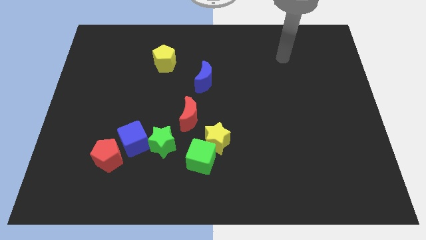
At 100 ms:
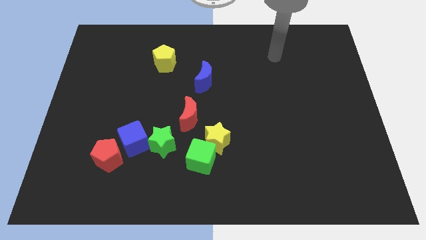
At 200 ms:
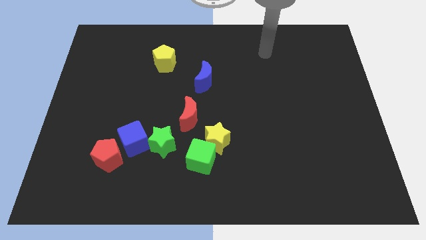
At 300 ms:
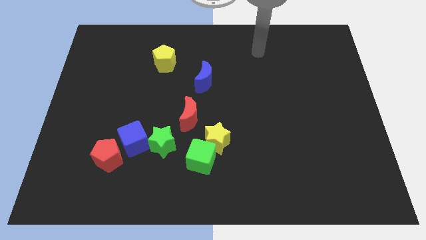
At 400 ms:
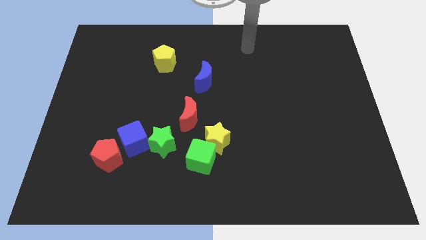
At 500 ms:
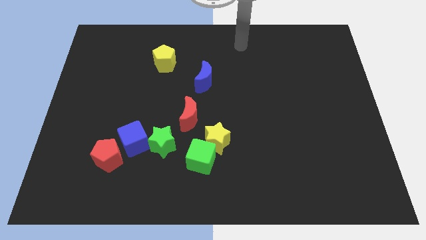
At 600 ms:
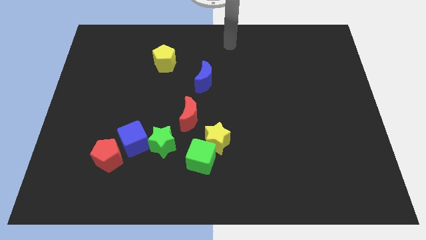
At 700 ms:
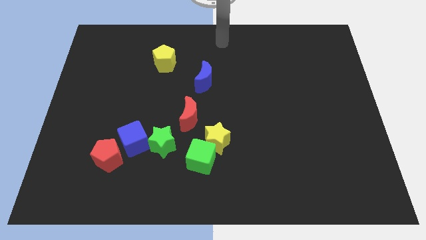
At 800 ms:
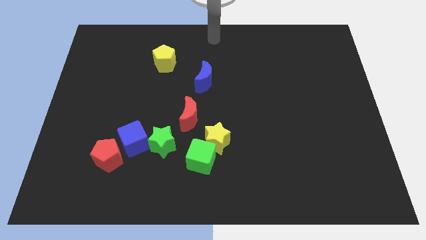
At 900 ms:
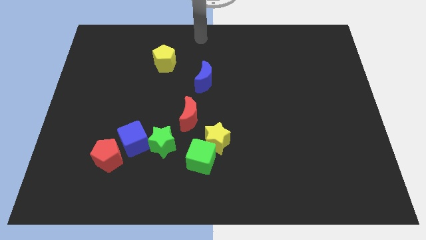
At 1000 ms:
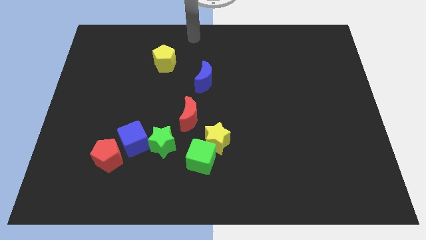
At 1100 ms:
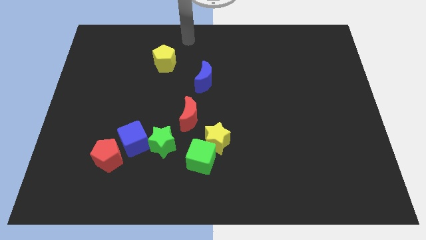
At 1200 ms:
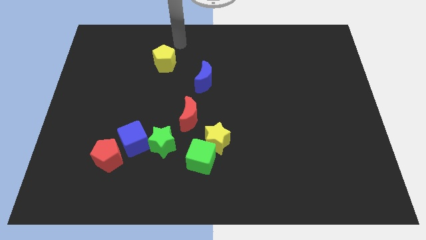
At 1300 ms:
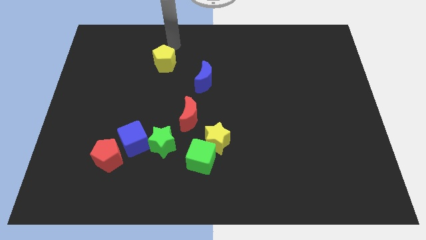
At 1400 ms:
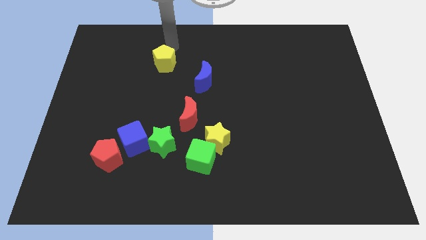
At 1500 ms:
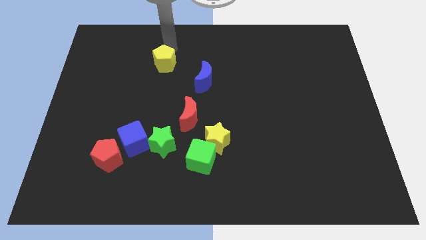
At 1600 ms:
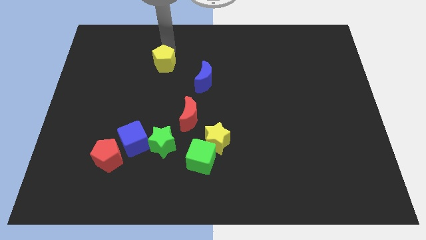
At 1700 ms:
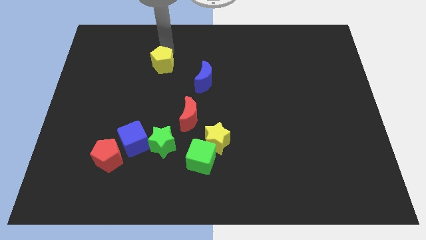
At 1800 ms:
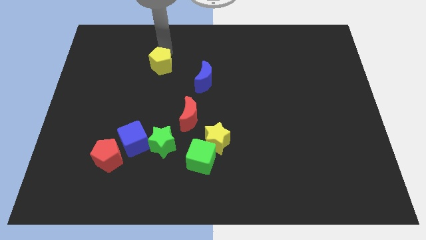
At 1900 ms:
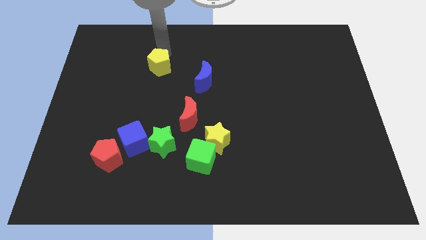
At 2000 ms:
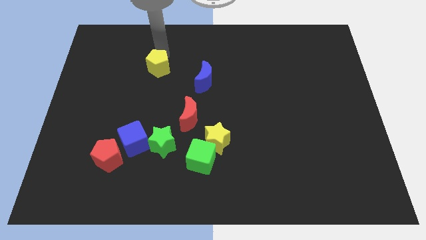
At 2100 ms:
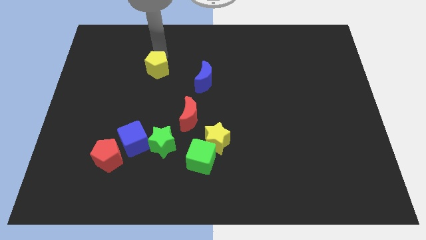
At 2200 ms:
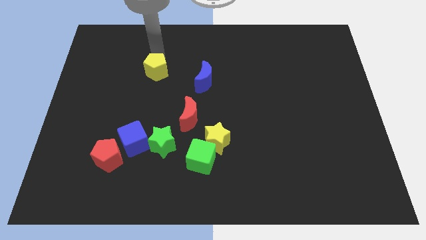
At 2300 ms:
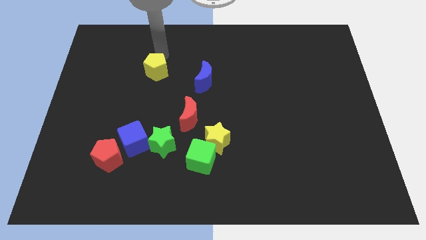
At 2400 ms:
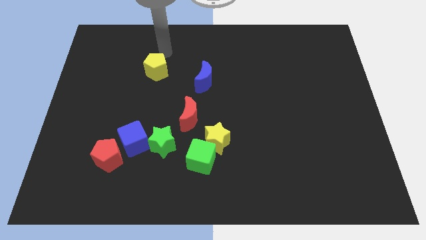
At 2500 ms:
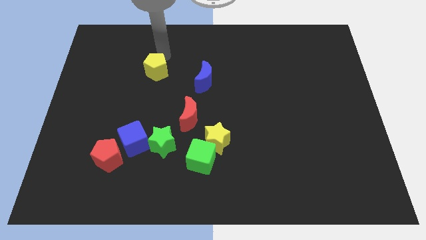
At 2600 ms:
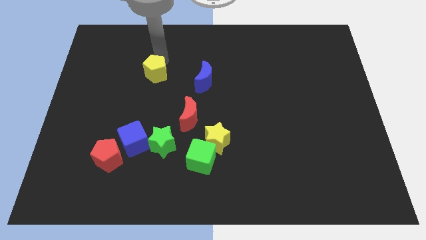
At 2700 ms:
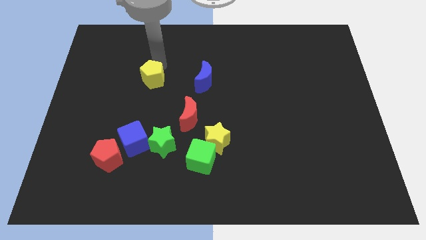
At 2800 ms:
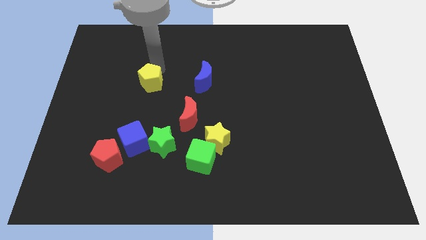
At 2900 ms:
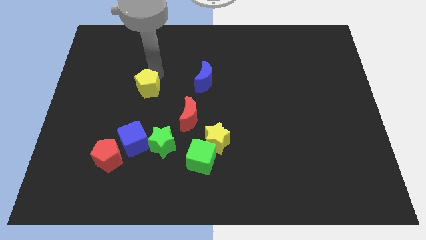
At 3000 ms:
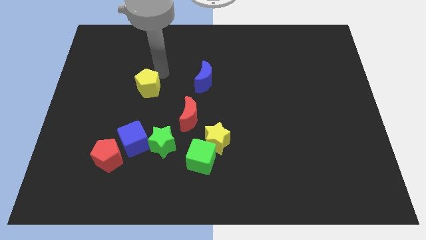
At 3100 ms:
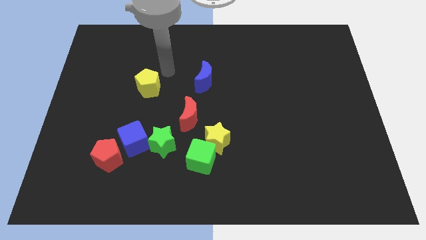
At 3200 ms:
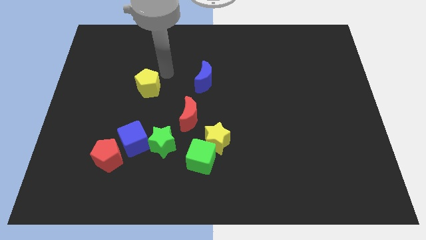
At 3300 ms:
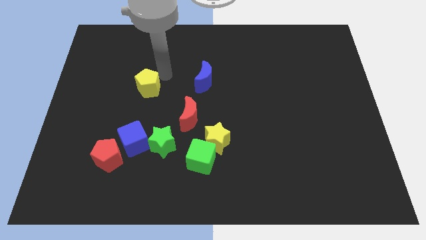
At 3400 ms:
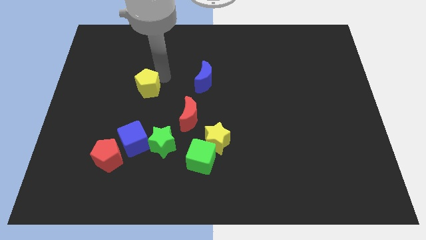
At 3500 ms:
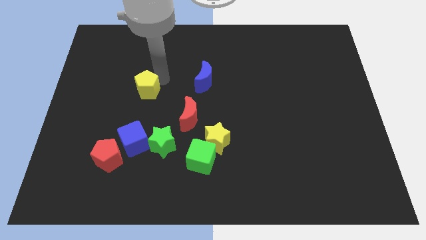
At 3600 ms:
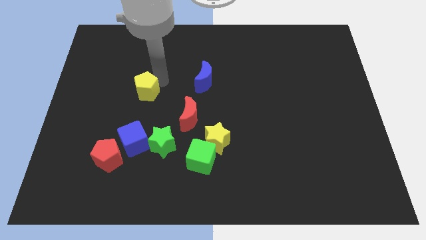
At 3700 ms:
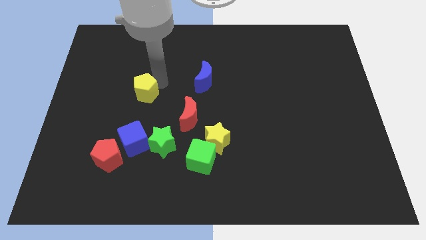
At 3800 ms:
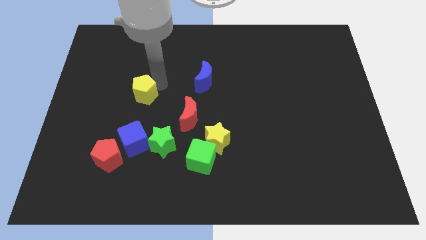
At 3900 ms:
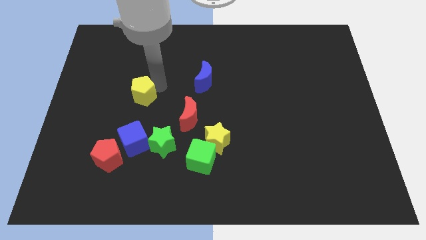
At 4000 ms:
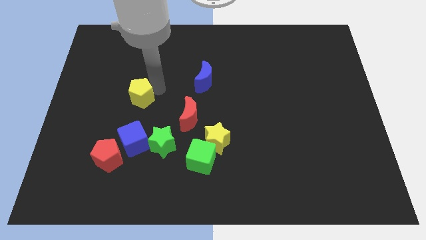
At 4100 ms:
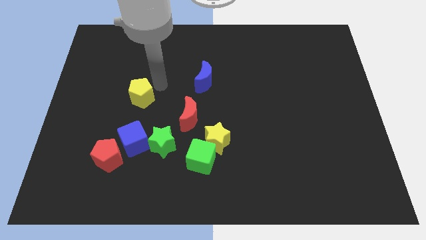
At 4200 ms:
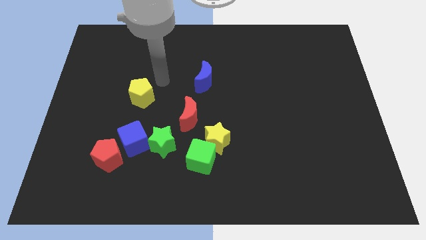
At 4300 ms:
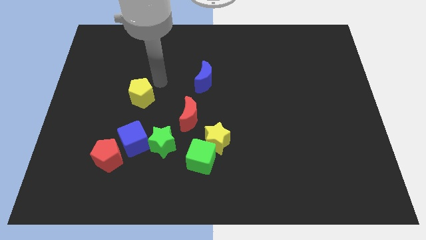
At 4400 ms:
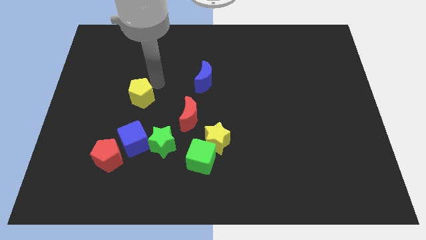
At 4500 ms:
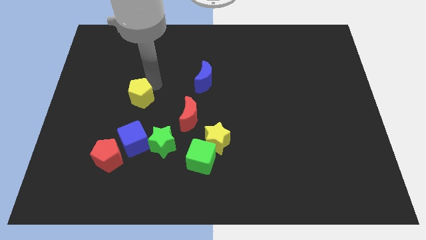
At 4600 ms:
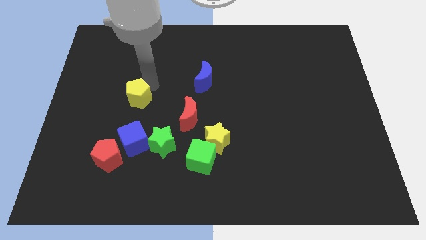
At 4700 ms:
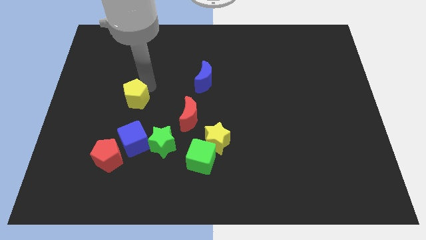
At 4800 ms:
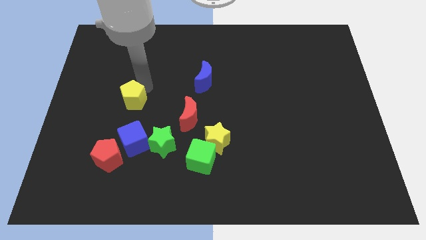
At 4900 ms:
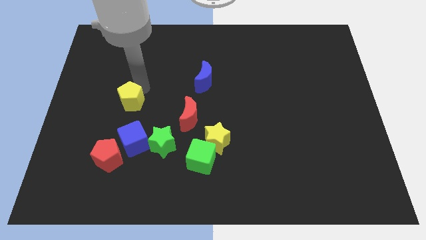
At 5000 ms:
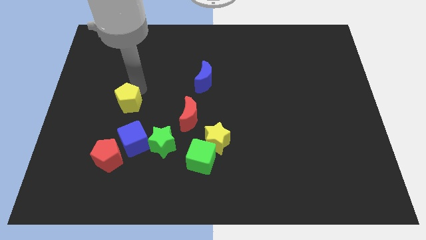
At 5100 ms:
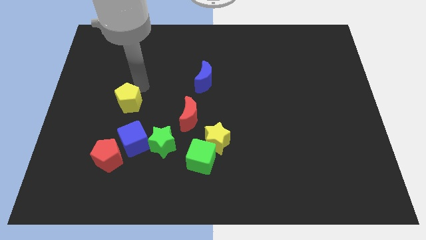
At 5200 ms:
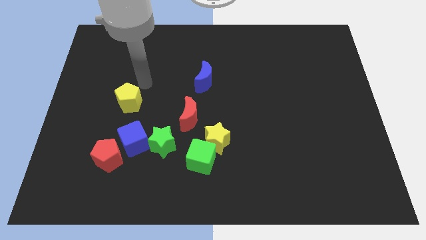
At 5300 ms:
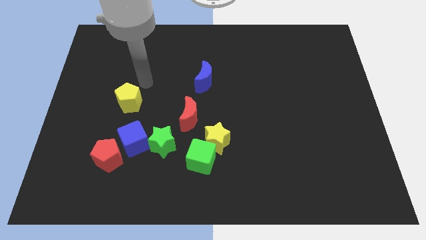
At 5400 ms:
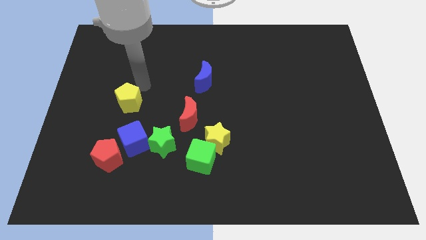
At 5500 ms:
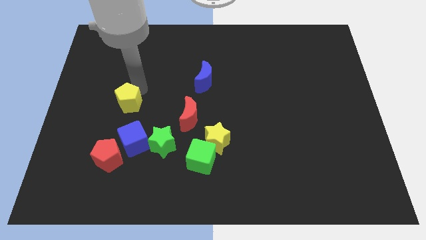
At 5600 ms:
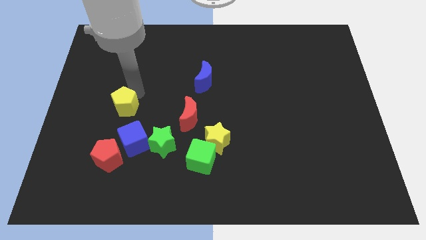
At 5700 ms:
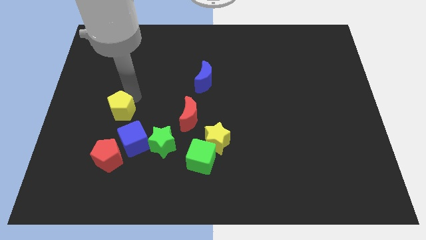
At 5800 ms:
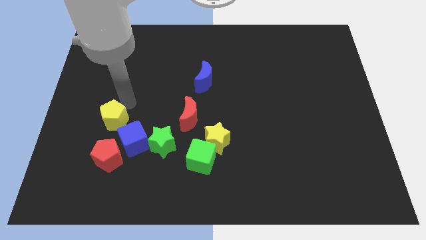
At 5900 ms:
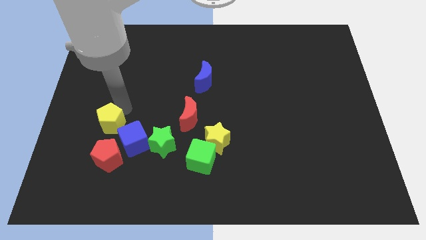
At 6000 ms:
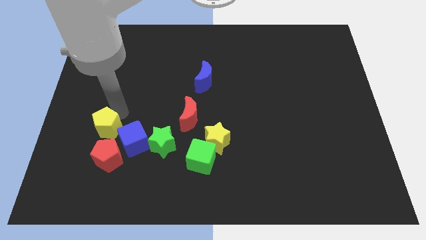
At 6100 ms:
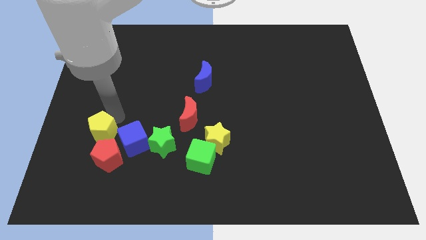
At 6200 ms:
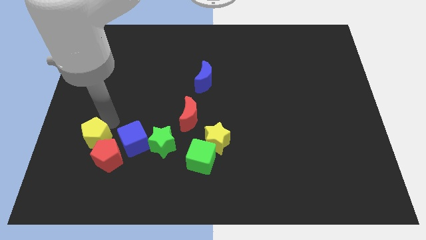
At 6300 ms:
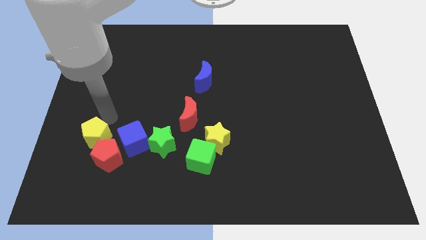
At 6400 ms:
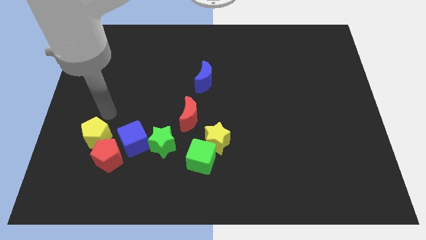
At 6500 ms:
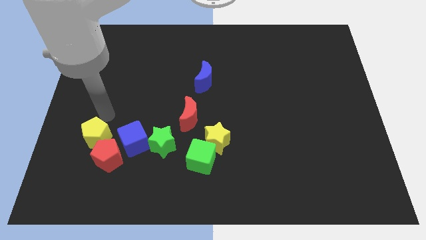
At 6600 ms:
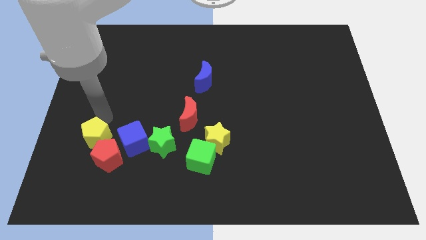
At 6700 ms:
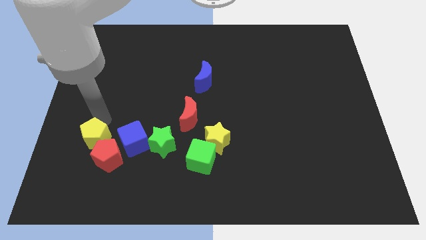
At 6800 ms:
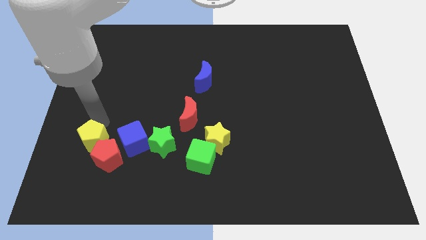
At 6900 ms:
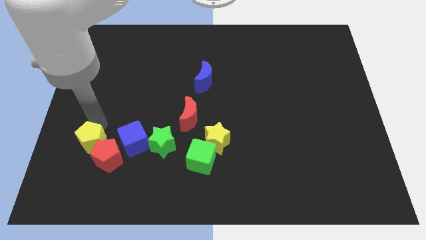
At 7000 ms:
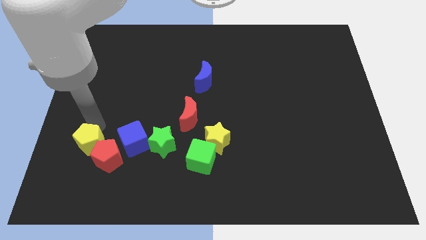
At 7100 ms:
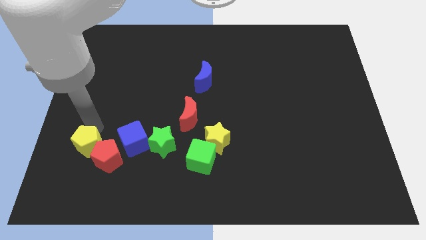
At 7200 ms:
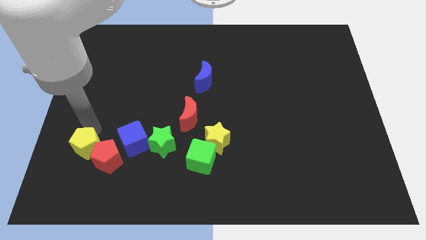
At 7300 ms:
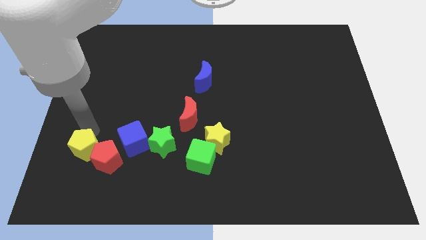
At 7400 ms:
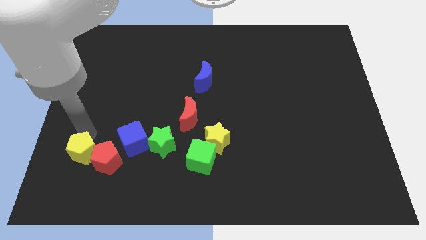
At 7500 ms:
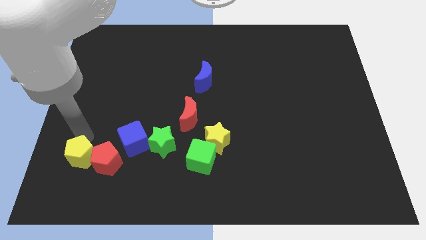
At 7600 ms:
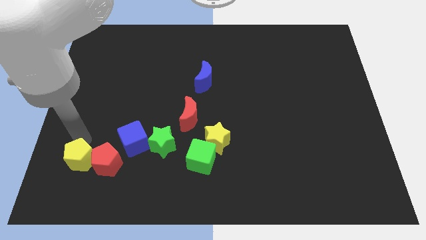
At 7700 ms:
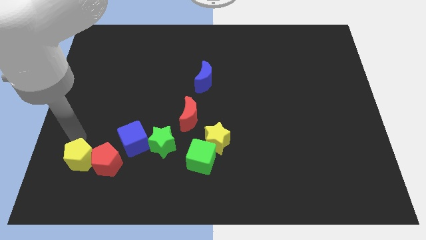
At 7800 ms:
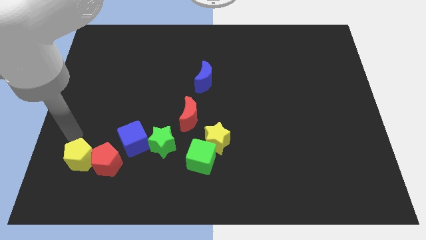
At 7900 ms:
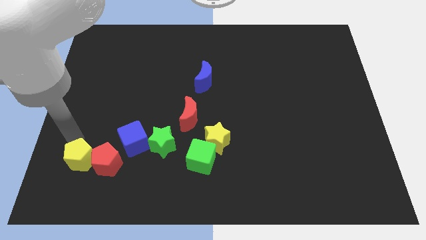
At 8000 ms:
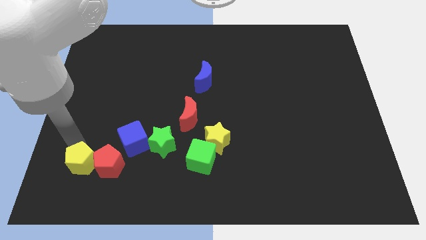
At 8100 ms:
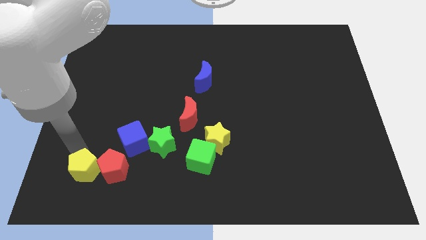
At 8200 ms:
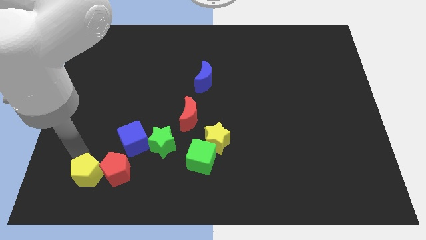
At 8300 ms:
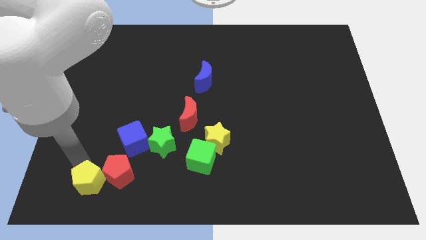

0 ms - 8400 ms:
move the yellow pentagon down
